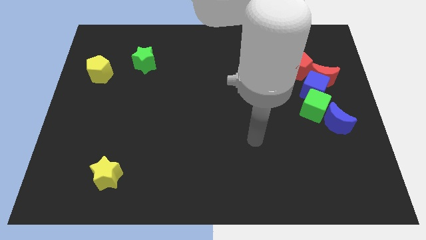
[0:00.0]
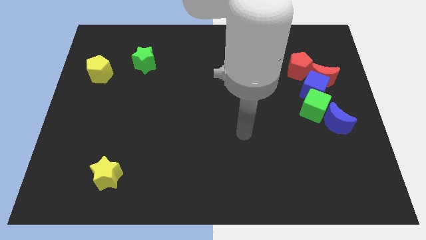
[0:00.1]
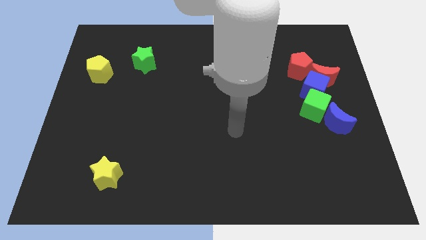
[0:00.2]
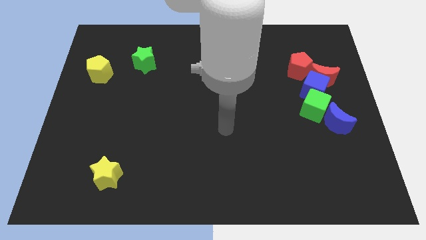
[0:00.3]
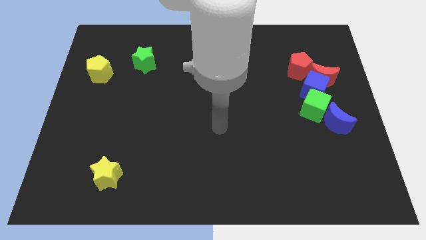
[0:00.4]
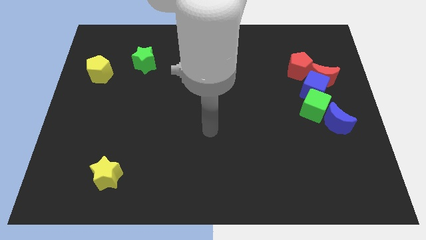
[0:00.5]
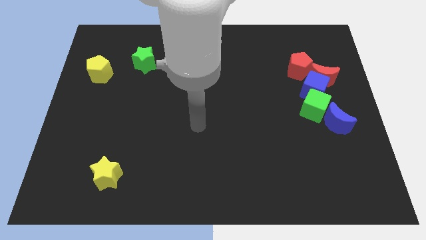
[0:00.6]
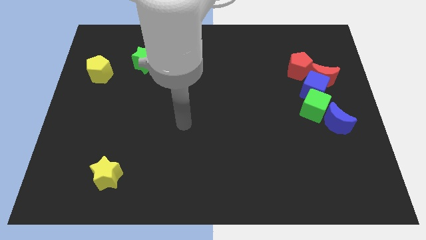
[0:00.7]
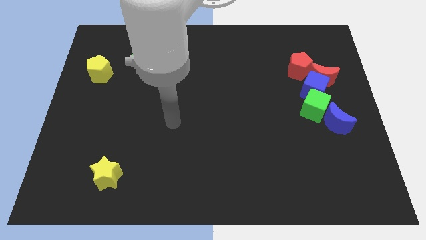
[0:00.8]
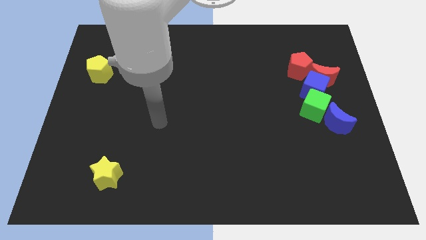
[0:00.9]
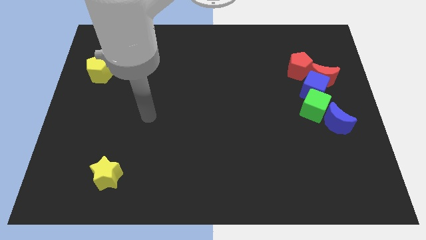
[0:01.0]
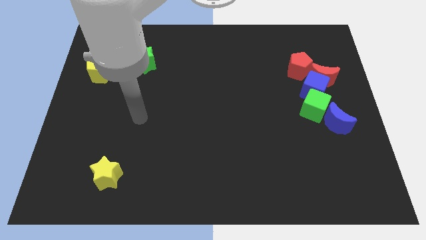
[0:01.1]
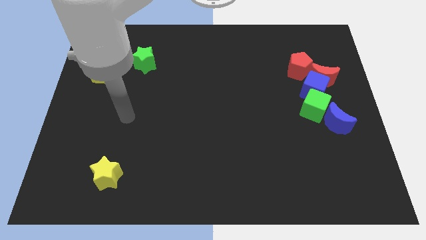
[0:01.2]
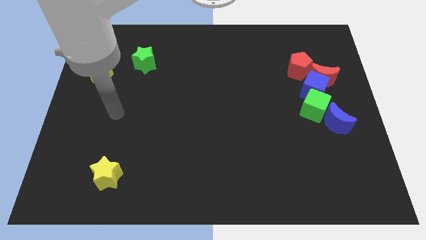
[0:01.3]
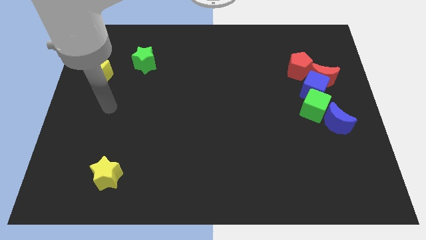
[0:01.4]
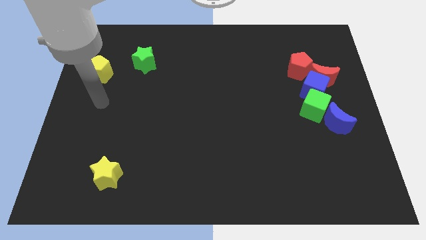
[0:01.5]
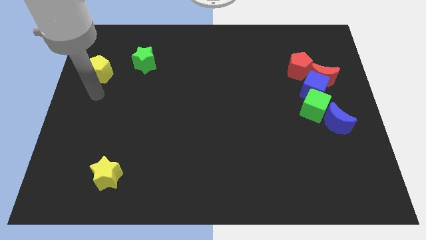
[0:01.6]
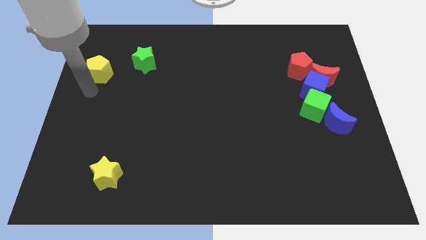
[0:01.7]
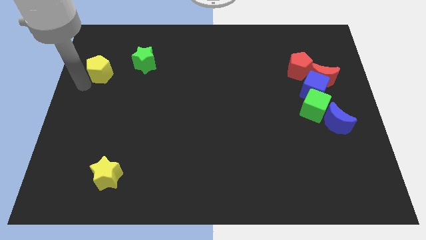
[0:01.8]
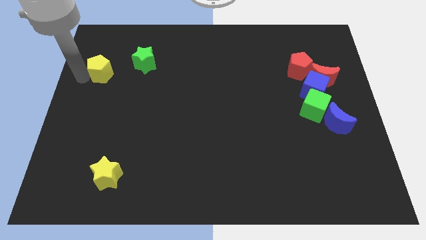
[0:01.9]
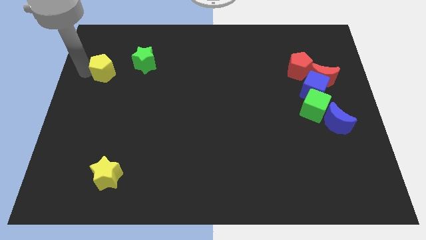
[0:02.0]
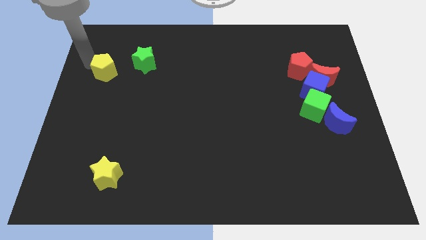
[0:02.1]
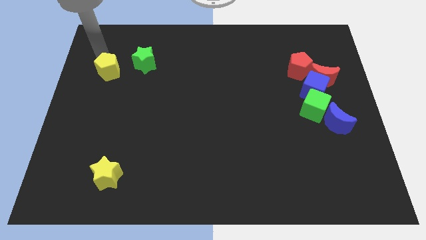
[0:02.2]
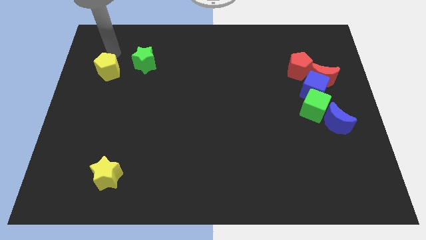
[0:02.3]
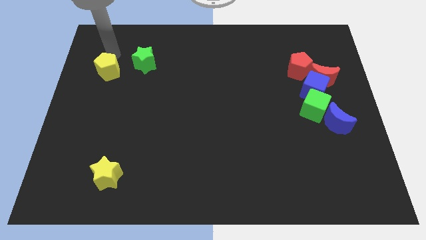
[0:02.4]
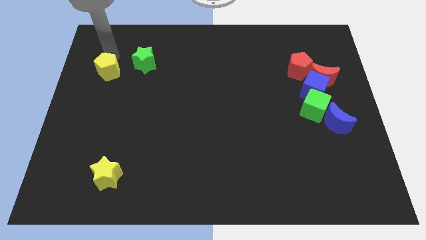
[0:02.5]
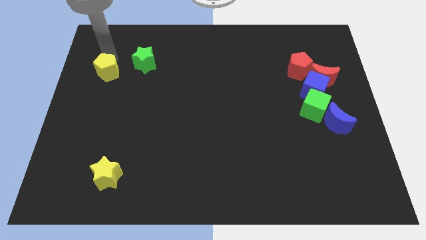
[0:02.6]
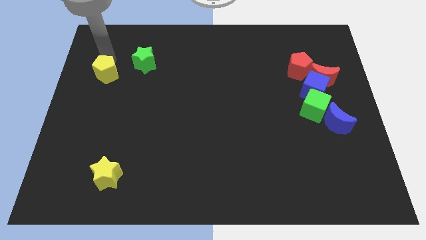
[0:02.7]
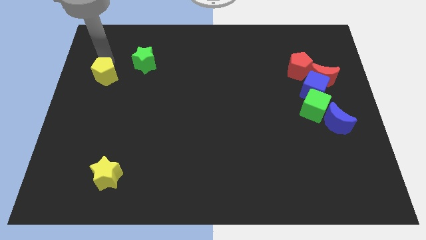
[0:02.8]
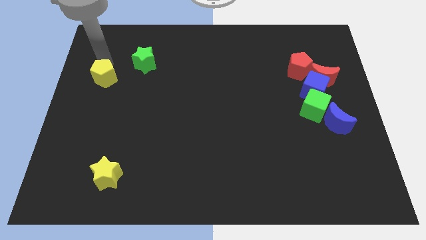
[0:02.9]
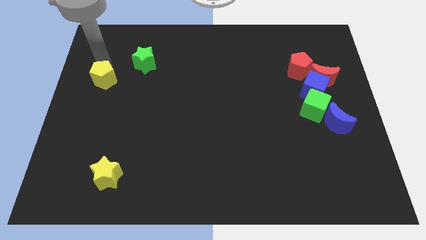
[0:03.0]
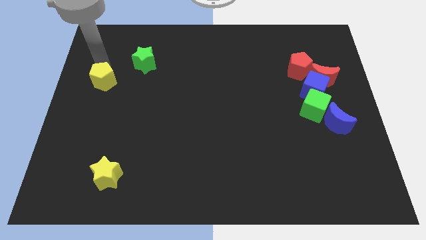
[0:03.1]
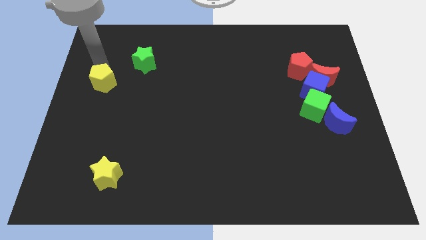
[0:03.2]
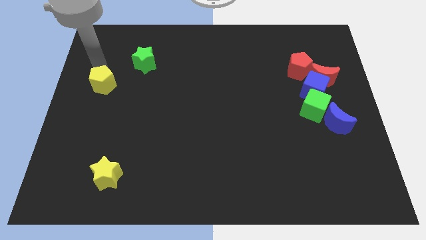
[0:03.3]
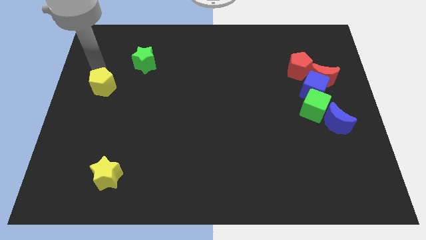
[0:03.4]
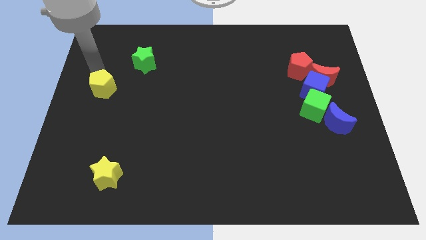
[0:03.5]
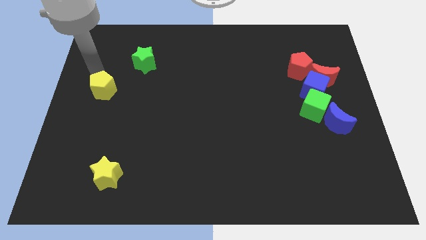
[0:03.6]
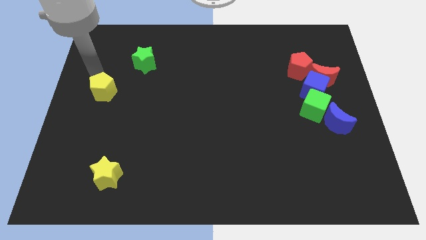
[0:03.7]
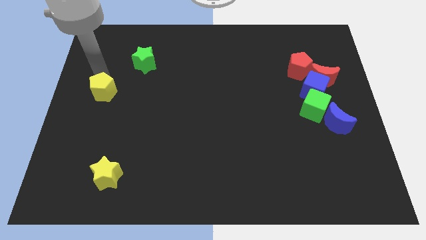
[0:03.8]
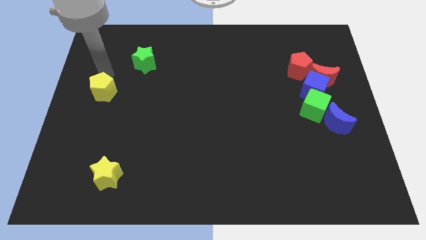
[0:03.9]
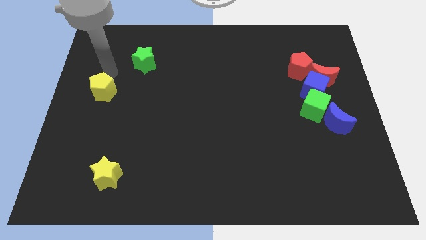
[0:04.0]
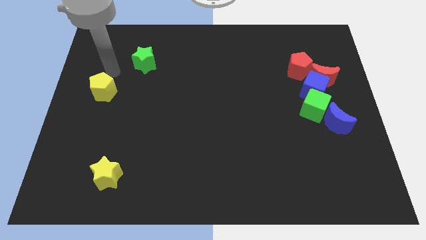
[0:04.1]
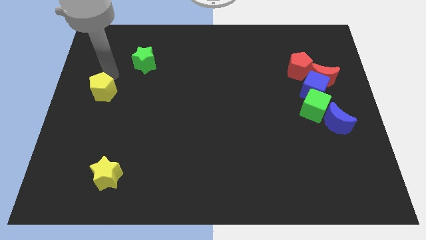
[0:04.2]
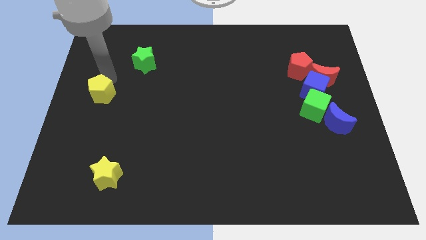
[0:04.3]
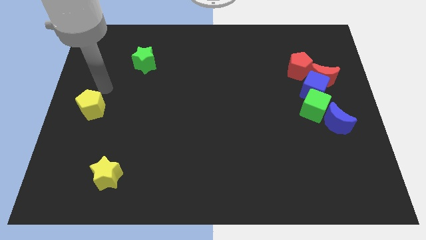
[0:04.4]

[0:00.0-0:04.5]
move the yellow pentagon a little bit down

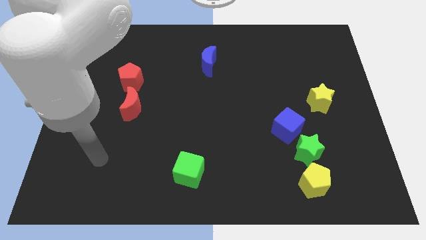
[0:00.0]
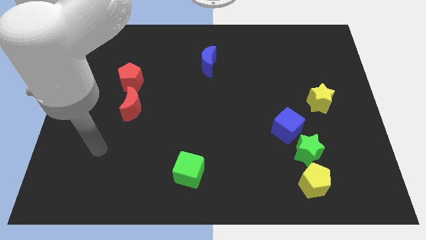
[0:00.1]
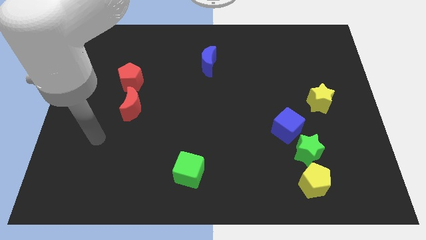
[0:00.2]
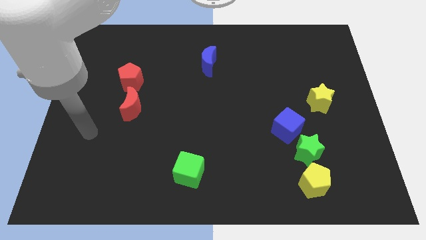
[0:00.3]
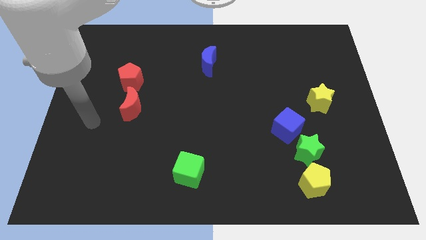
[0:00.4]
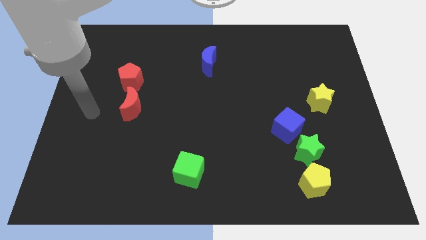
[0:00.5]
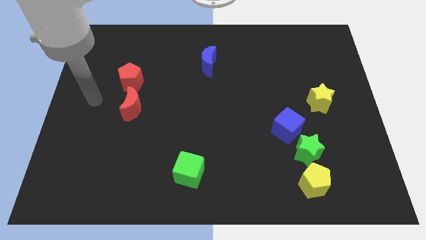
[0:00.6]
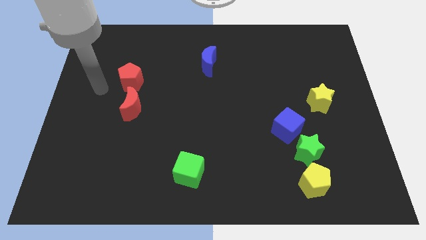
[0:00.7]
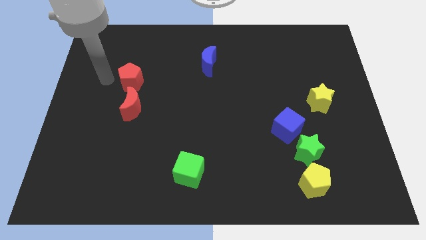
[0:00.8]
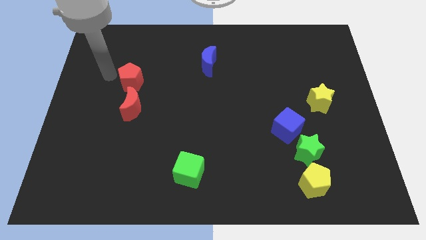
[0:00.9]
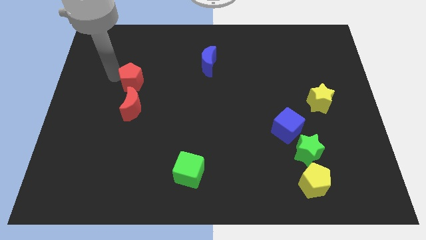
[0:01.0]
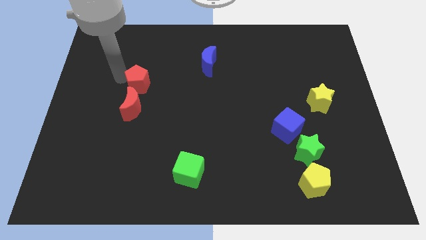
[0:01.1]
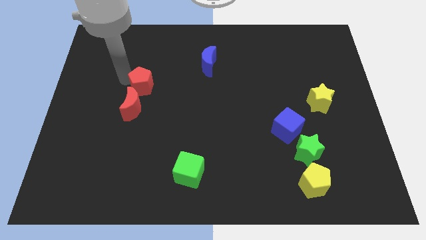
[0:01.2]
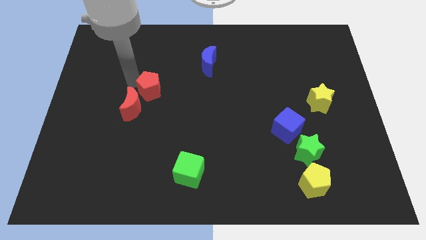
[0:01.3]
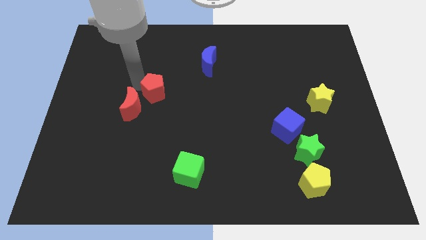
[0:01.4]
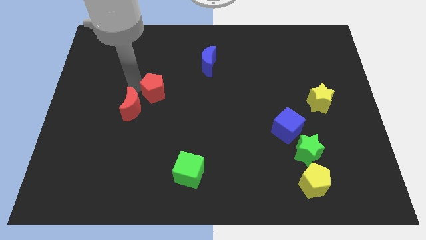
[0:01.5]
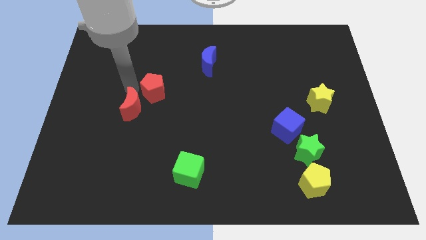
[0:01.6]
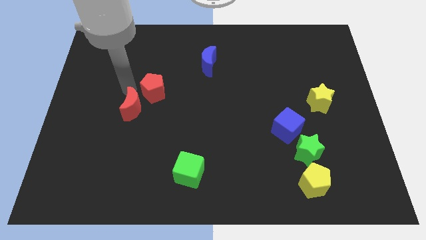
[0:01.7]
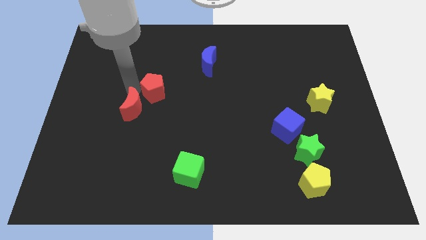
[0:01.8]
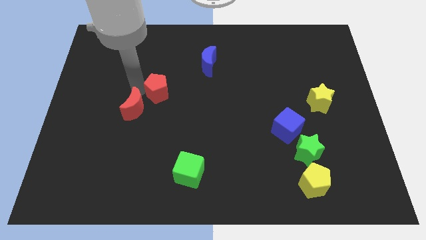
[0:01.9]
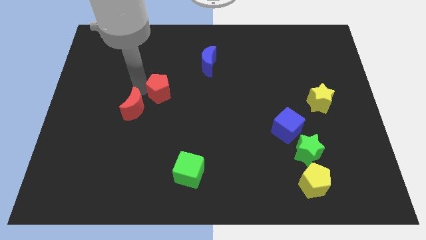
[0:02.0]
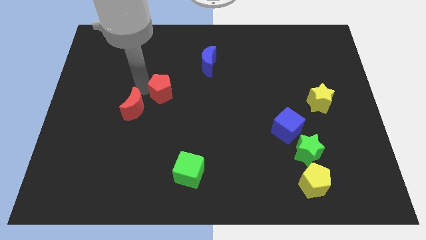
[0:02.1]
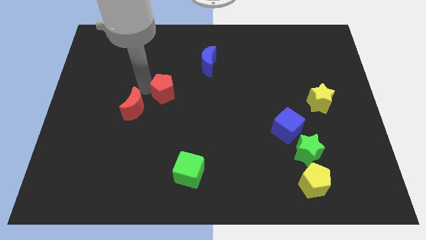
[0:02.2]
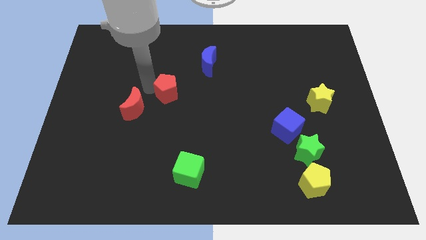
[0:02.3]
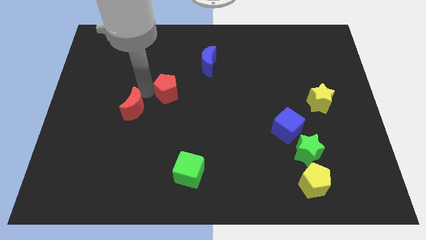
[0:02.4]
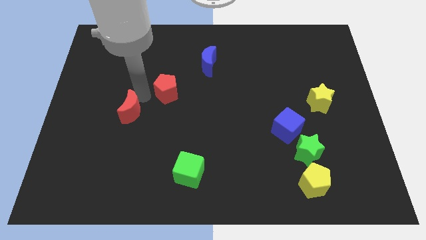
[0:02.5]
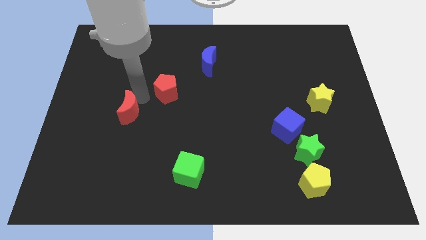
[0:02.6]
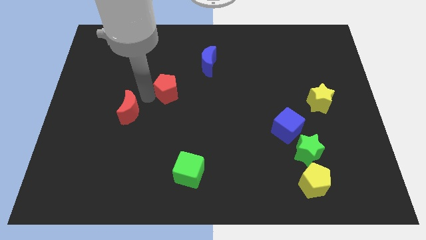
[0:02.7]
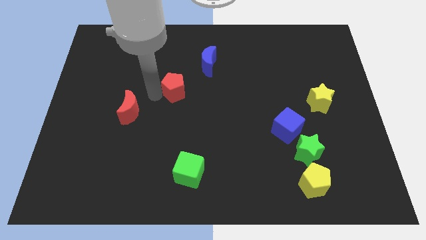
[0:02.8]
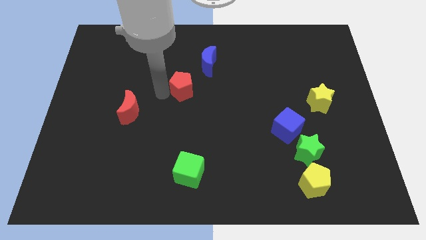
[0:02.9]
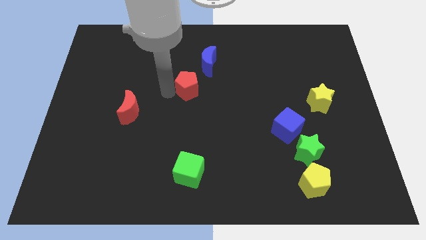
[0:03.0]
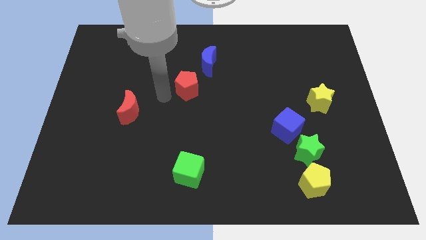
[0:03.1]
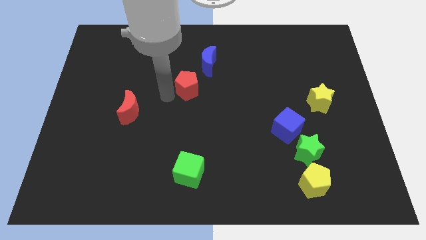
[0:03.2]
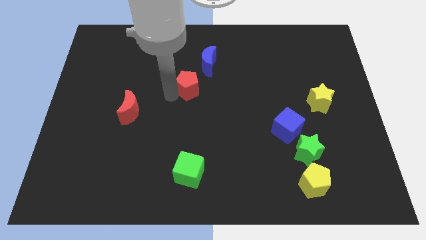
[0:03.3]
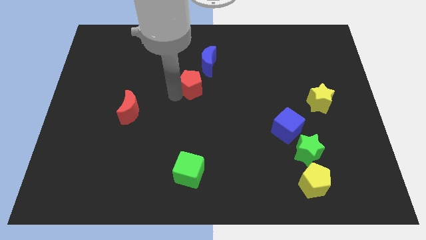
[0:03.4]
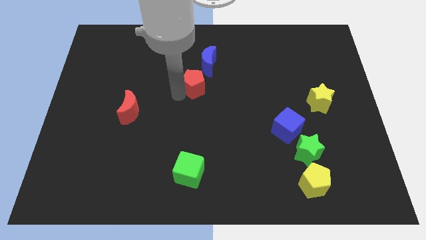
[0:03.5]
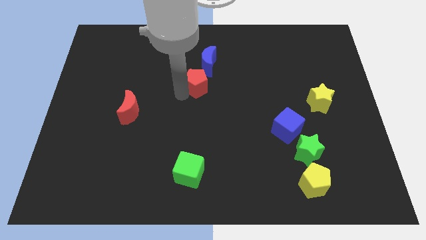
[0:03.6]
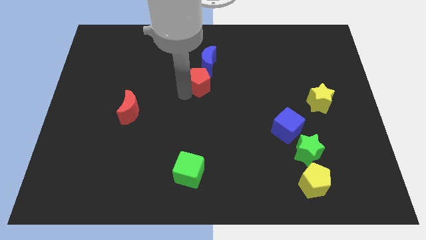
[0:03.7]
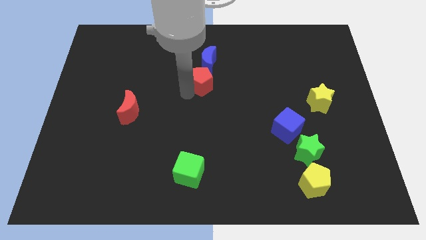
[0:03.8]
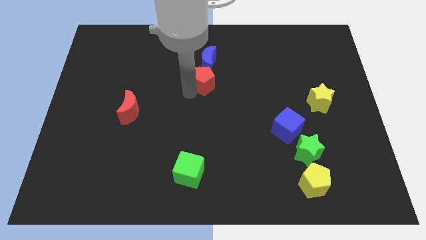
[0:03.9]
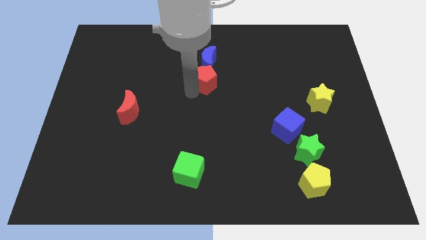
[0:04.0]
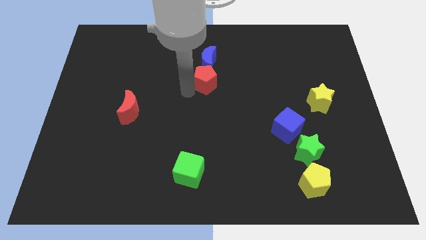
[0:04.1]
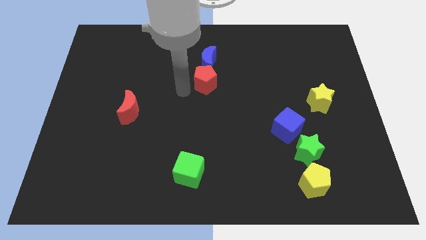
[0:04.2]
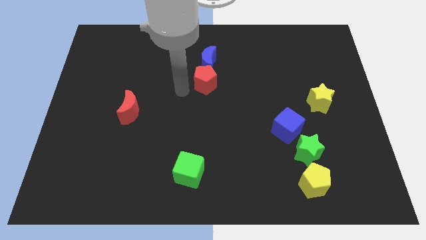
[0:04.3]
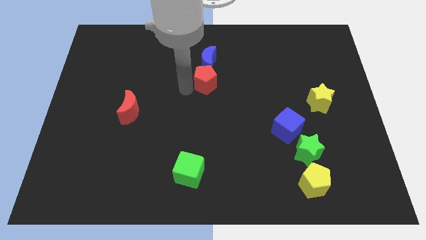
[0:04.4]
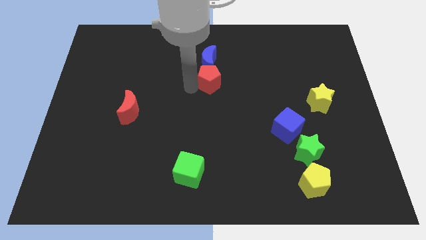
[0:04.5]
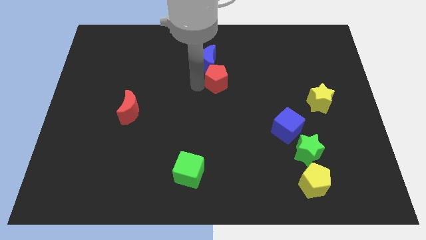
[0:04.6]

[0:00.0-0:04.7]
move the red pentagon right
